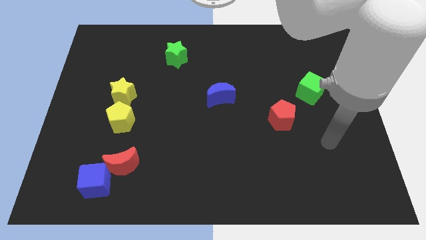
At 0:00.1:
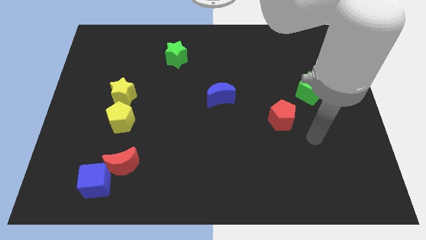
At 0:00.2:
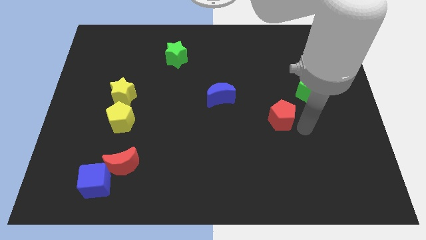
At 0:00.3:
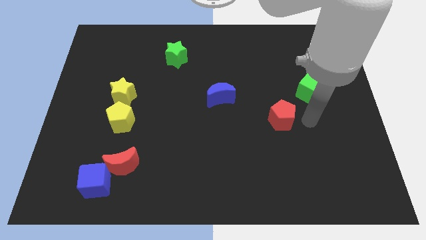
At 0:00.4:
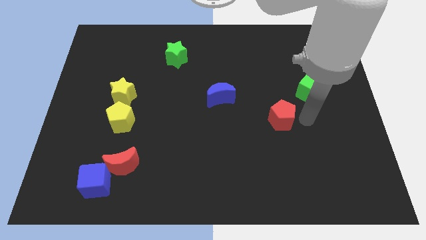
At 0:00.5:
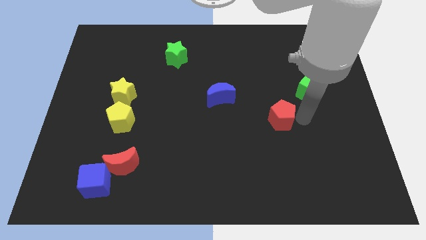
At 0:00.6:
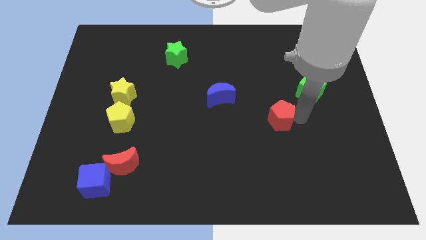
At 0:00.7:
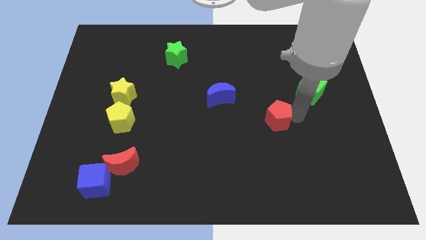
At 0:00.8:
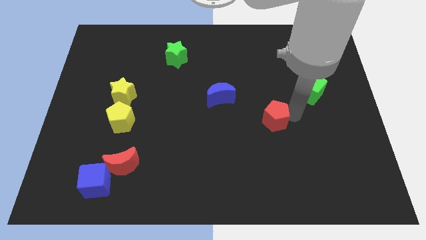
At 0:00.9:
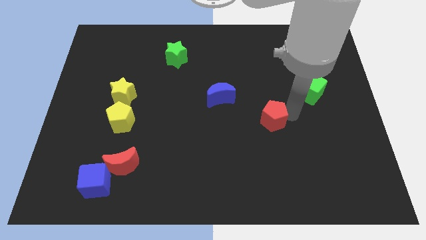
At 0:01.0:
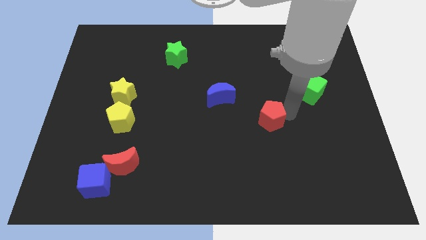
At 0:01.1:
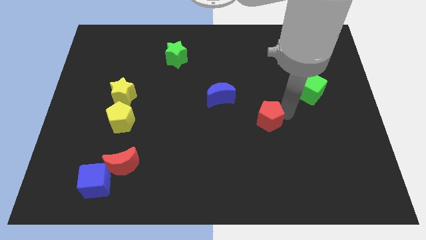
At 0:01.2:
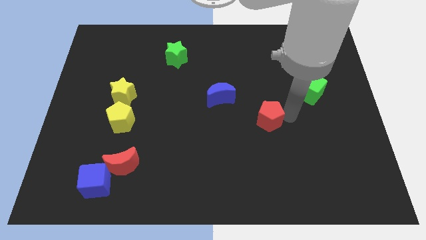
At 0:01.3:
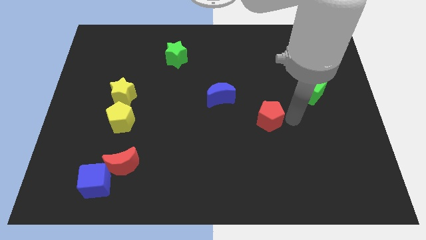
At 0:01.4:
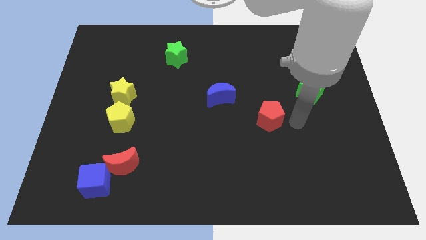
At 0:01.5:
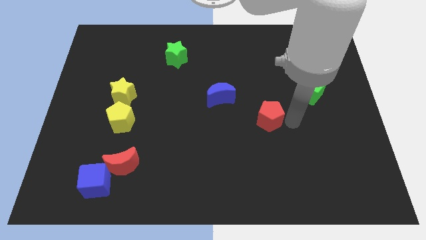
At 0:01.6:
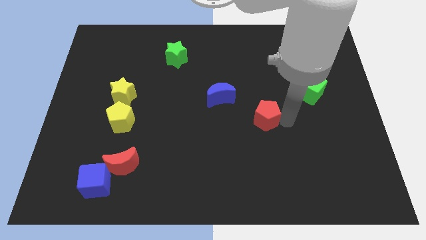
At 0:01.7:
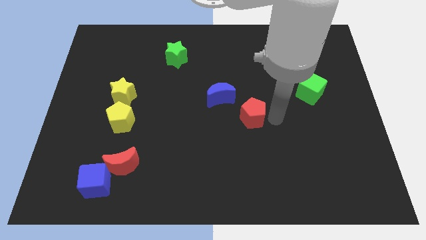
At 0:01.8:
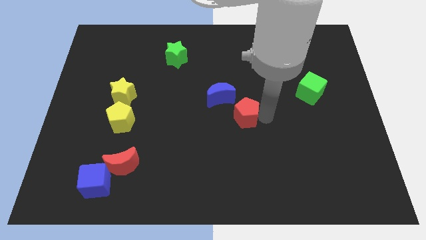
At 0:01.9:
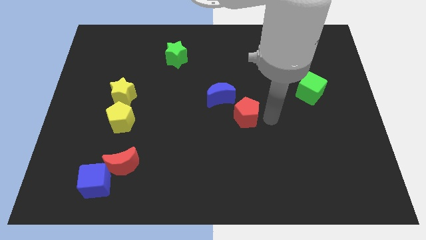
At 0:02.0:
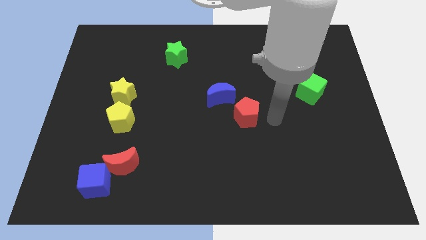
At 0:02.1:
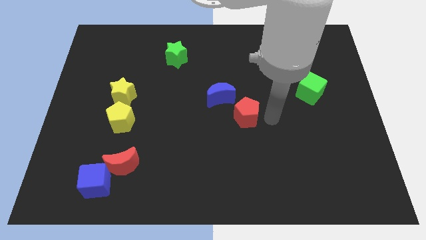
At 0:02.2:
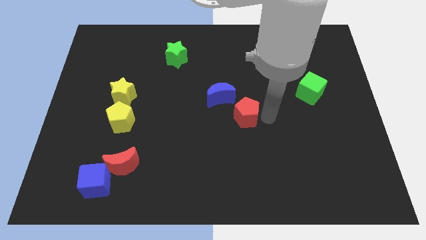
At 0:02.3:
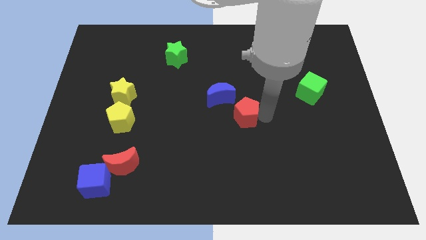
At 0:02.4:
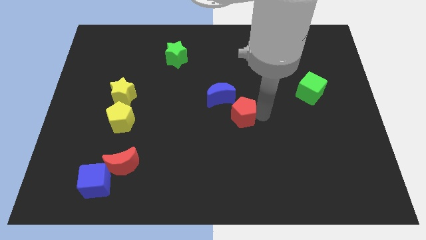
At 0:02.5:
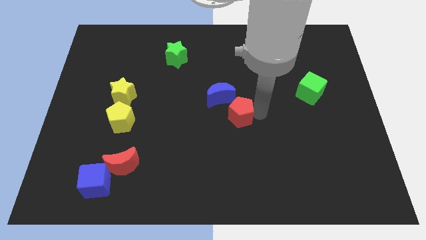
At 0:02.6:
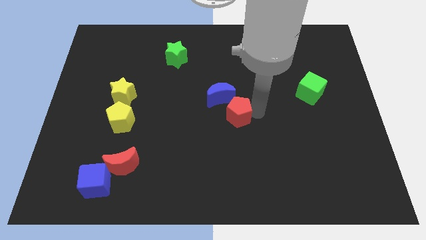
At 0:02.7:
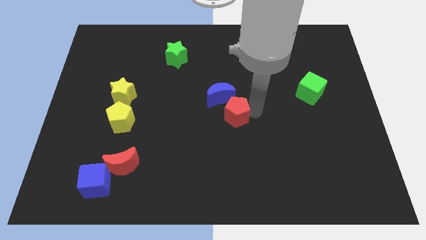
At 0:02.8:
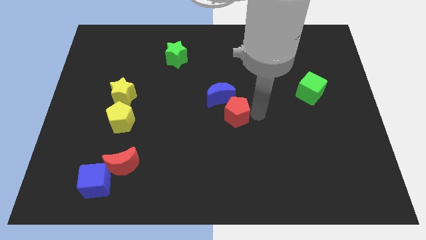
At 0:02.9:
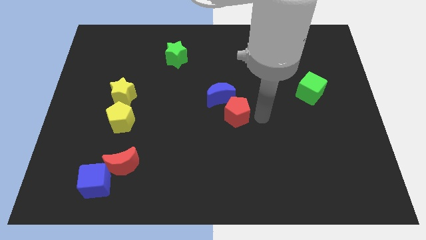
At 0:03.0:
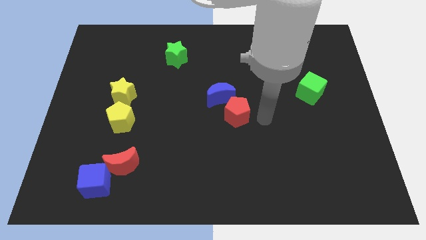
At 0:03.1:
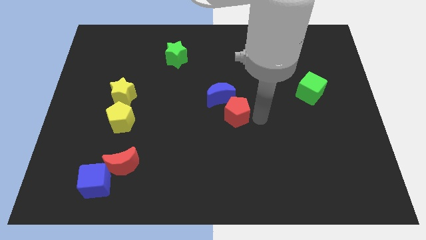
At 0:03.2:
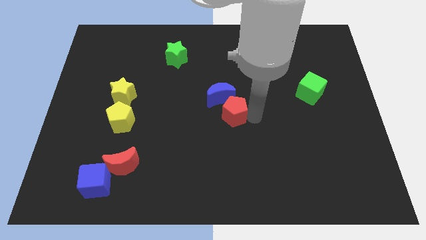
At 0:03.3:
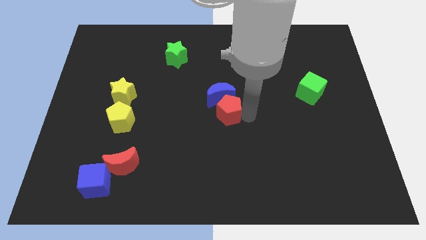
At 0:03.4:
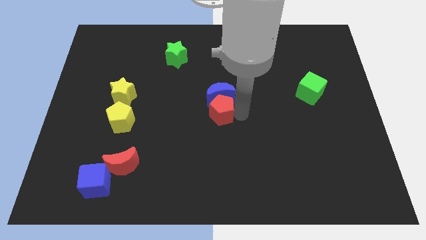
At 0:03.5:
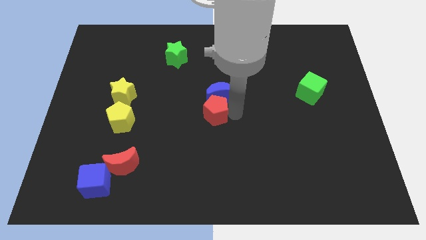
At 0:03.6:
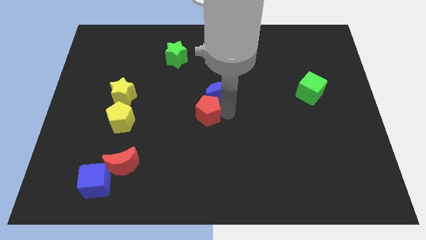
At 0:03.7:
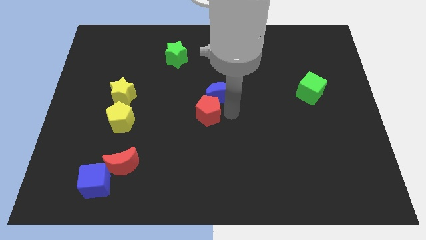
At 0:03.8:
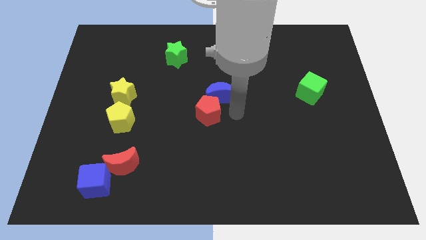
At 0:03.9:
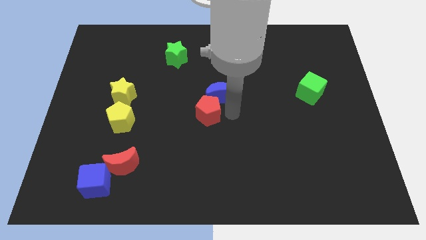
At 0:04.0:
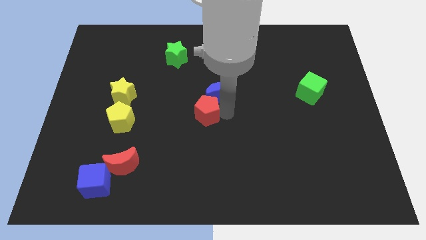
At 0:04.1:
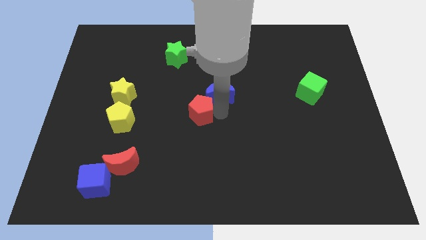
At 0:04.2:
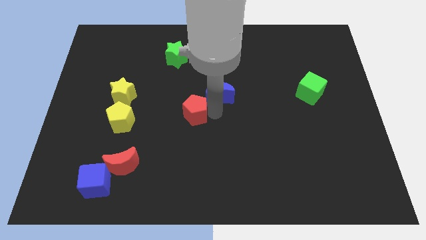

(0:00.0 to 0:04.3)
slide the red pentagon to the left

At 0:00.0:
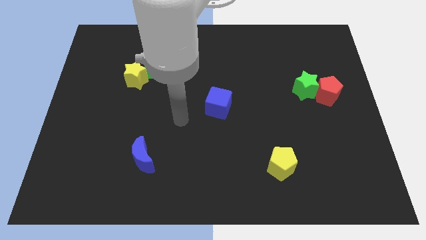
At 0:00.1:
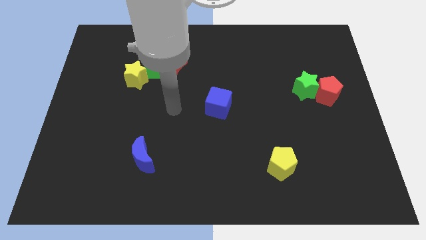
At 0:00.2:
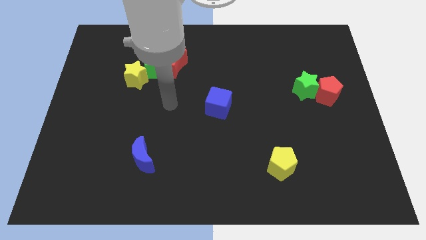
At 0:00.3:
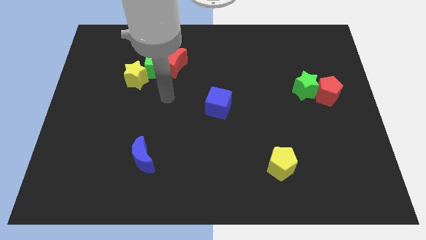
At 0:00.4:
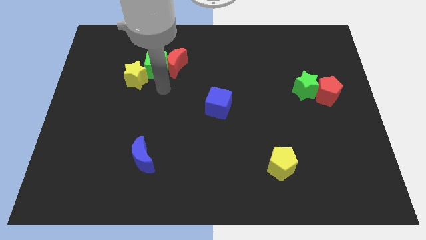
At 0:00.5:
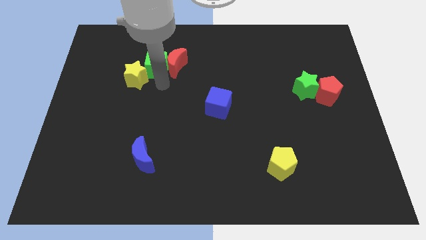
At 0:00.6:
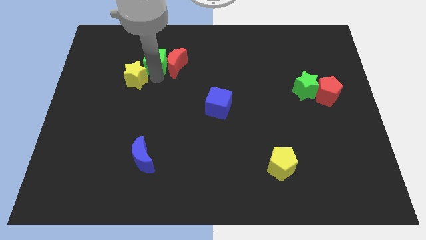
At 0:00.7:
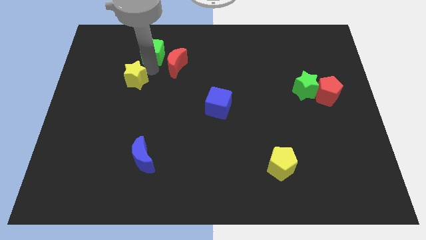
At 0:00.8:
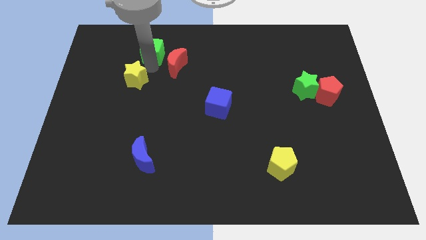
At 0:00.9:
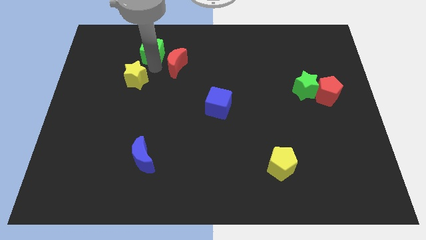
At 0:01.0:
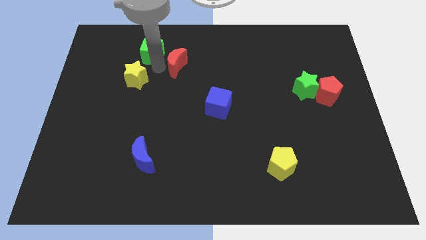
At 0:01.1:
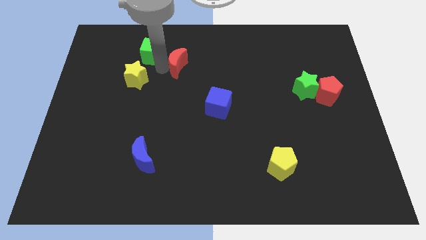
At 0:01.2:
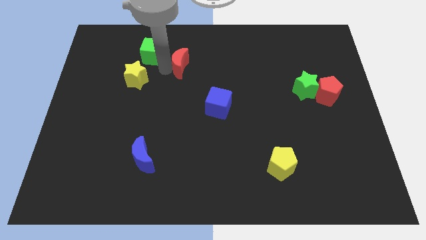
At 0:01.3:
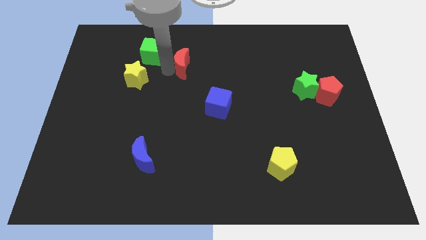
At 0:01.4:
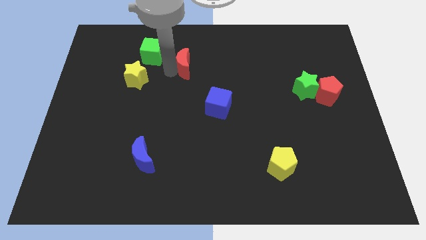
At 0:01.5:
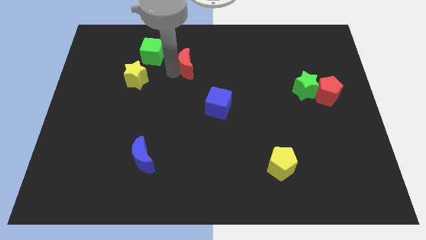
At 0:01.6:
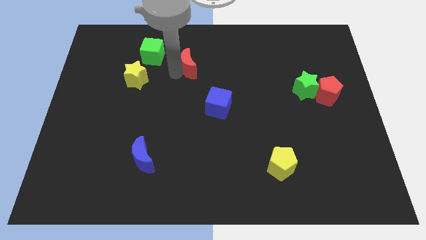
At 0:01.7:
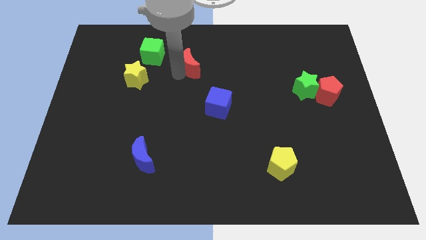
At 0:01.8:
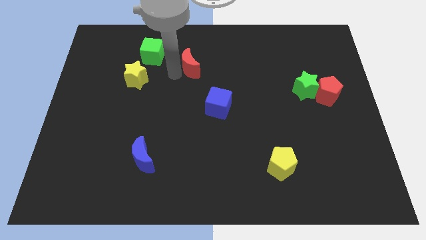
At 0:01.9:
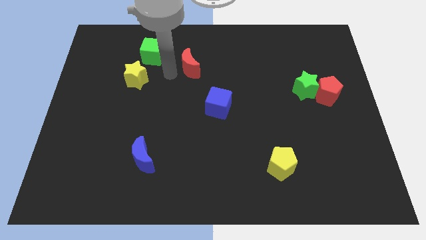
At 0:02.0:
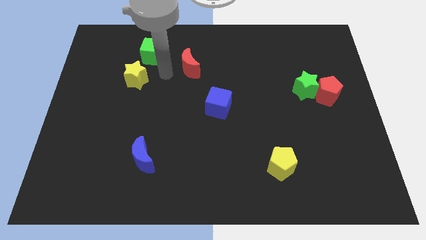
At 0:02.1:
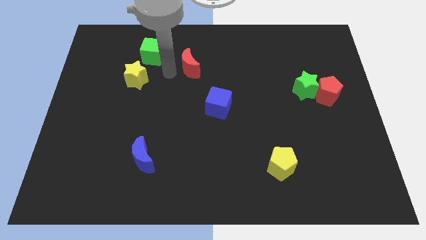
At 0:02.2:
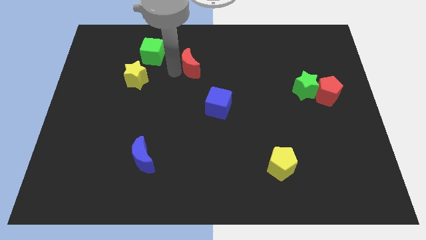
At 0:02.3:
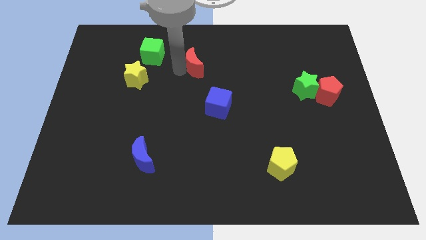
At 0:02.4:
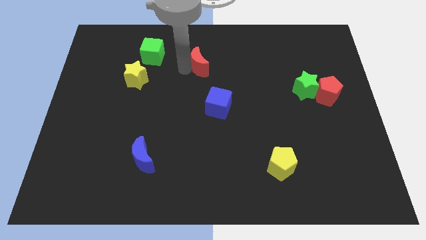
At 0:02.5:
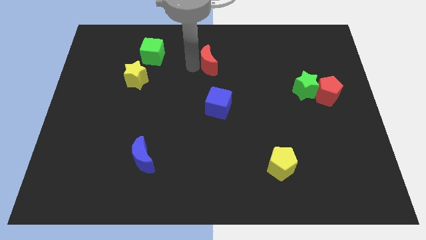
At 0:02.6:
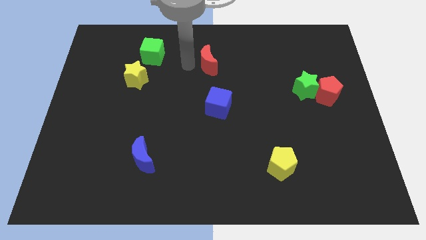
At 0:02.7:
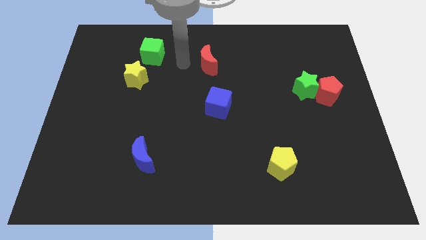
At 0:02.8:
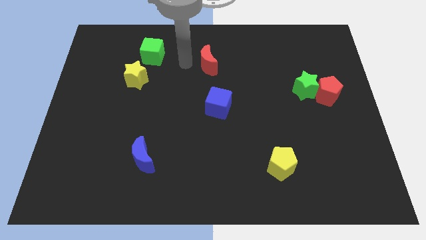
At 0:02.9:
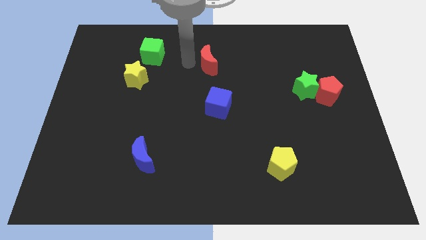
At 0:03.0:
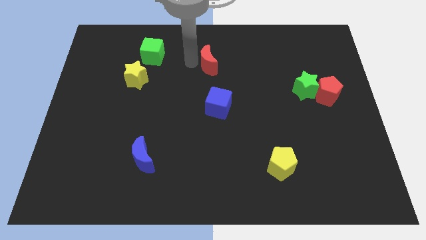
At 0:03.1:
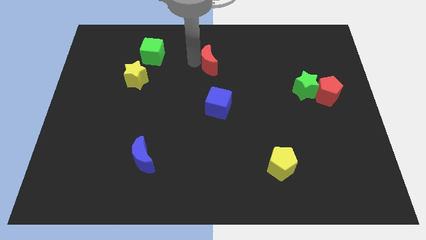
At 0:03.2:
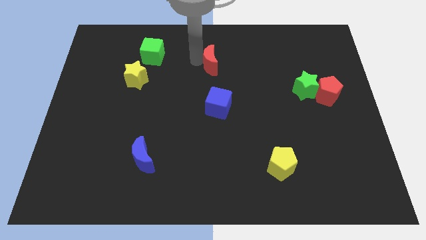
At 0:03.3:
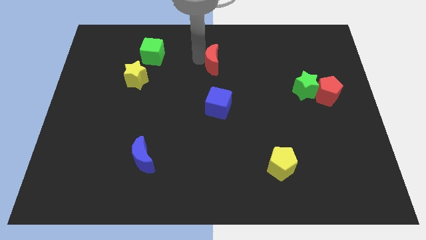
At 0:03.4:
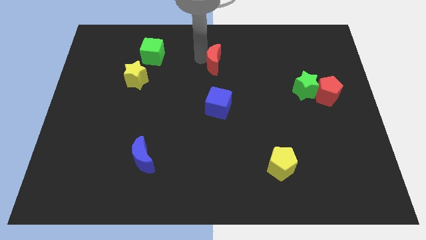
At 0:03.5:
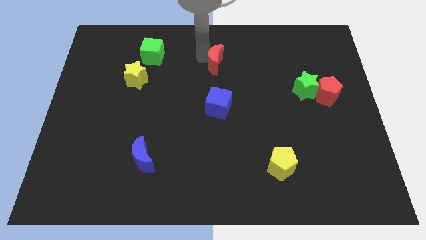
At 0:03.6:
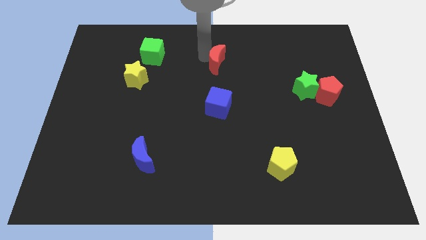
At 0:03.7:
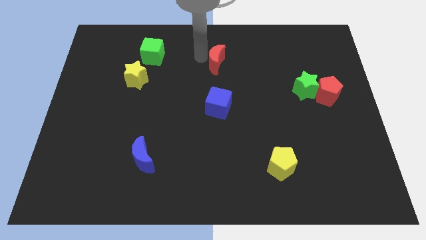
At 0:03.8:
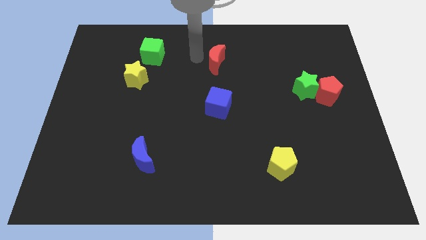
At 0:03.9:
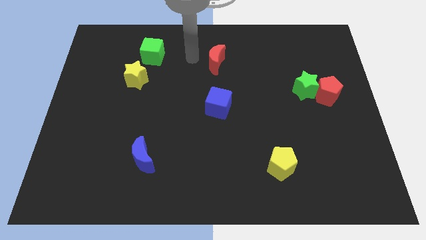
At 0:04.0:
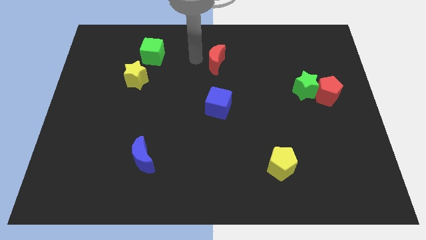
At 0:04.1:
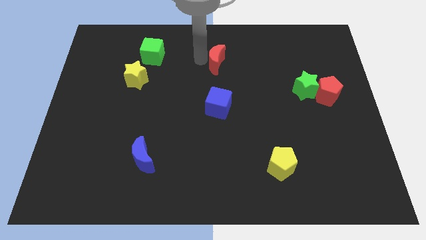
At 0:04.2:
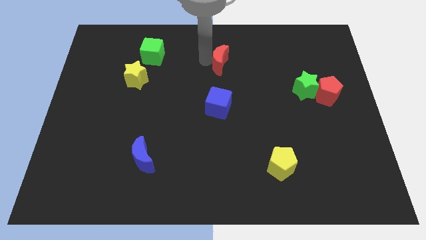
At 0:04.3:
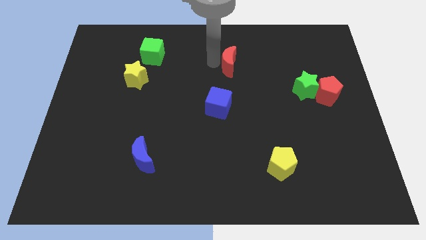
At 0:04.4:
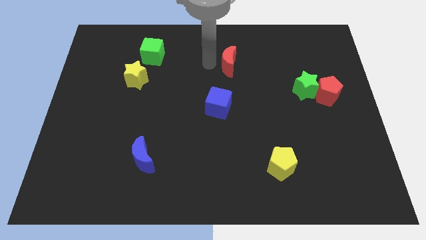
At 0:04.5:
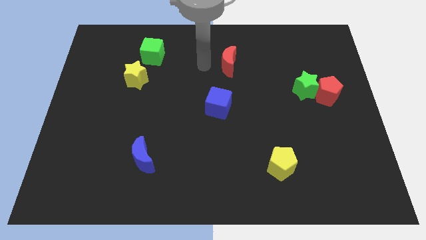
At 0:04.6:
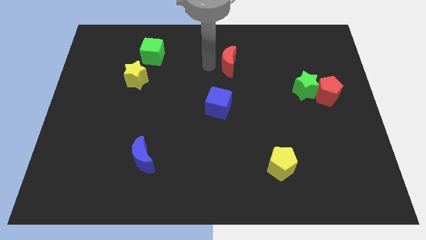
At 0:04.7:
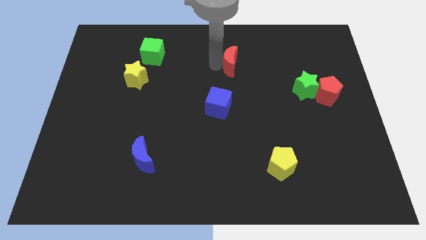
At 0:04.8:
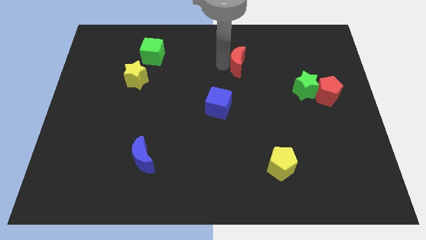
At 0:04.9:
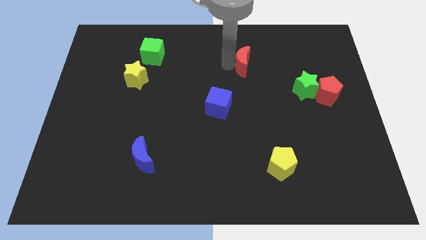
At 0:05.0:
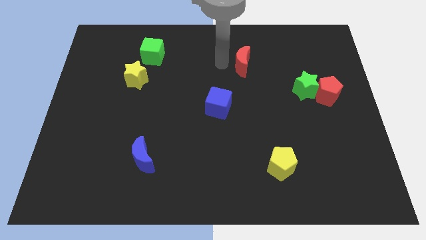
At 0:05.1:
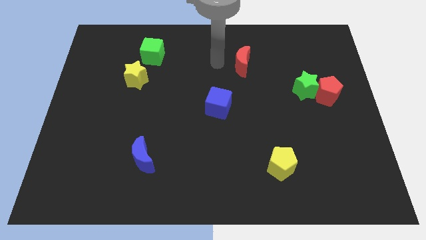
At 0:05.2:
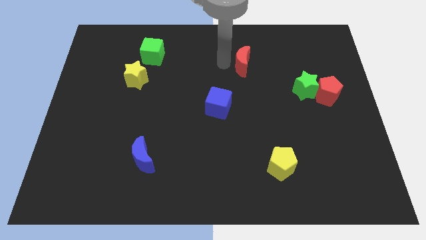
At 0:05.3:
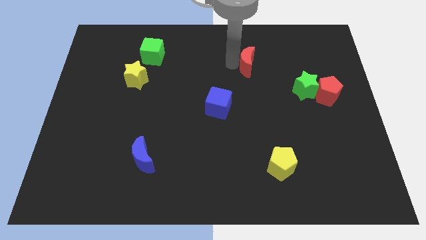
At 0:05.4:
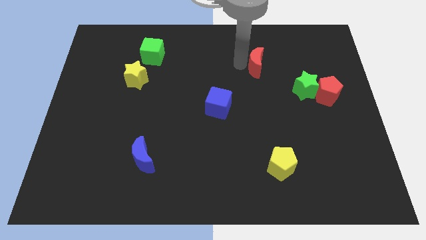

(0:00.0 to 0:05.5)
slide the red moon right
